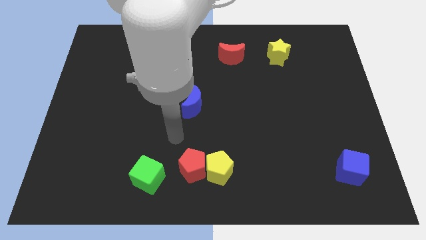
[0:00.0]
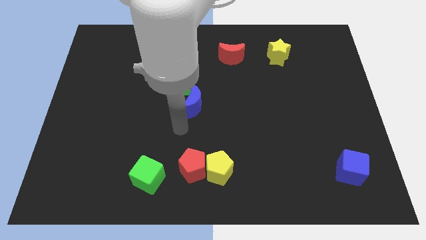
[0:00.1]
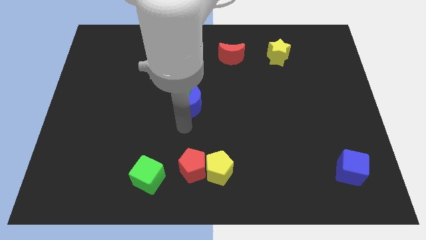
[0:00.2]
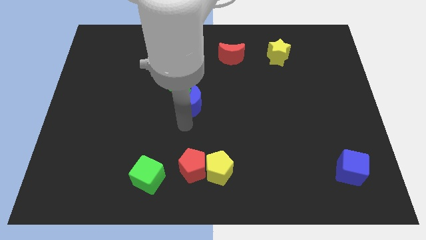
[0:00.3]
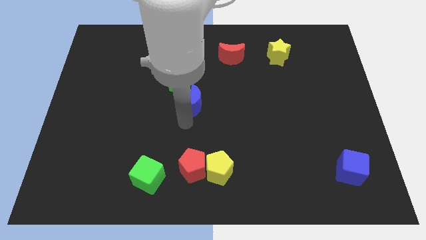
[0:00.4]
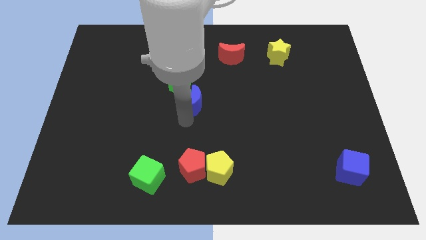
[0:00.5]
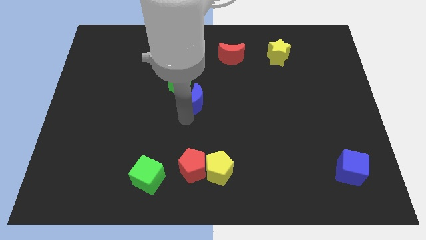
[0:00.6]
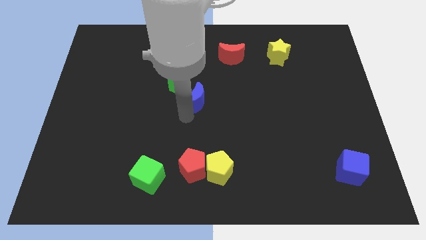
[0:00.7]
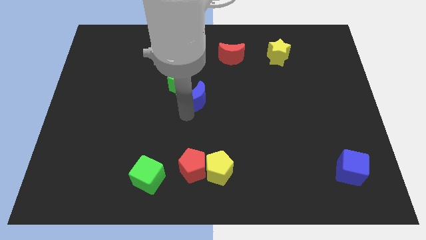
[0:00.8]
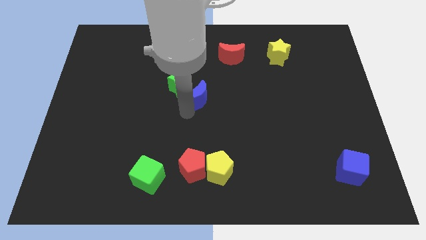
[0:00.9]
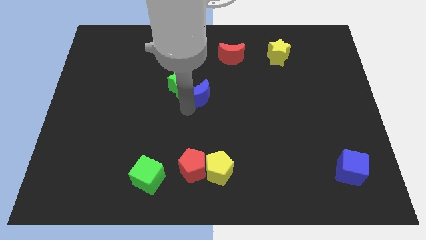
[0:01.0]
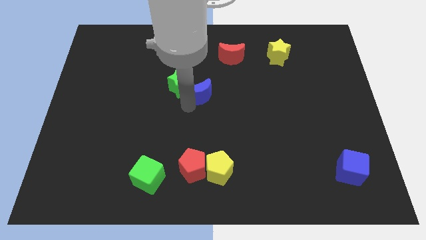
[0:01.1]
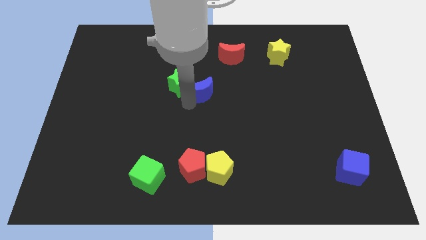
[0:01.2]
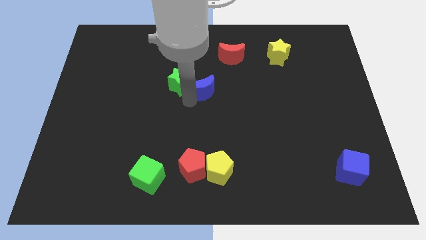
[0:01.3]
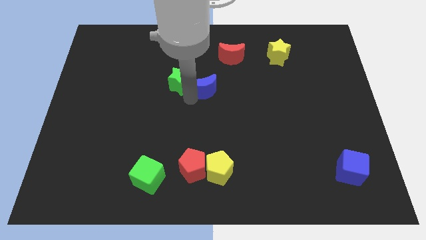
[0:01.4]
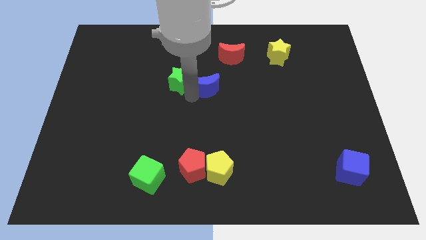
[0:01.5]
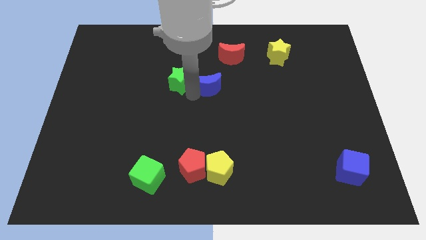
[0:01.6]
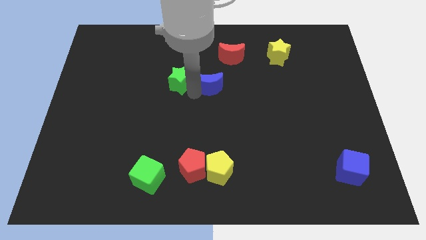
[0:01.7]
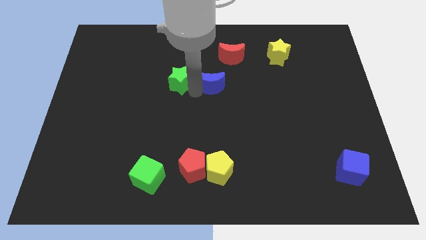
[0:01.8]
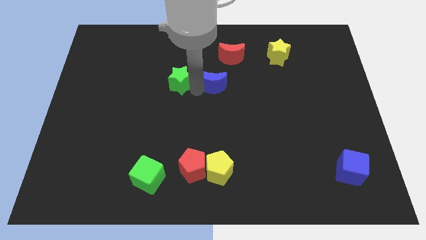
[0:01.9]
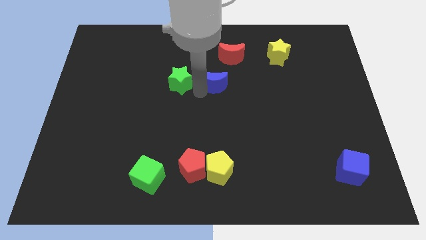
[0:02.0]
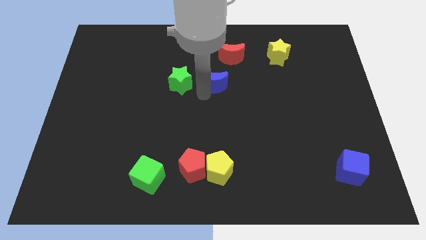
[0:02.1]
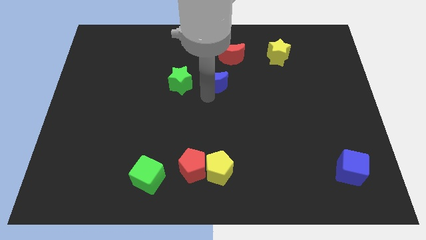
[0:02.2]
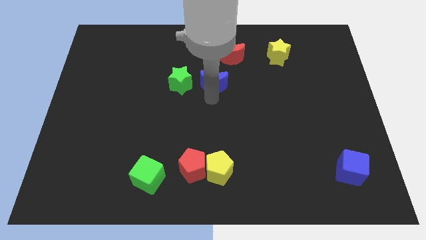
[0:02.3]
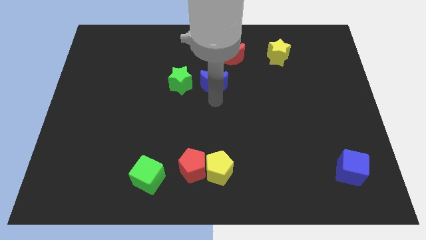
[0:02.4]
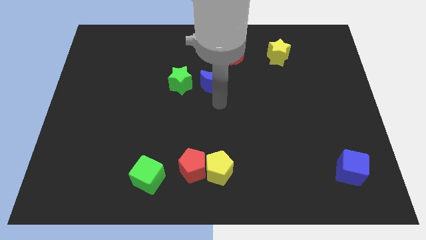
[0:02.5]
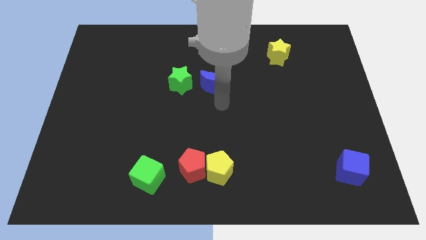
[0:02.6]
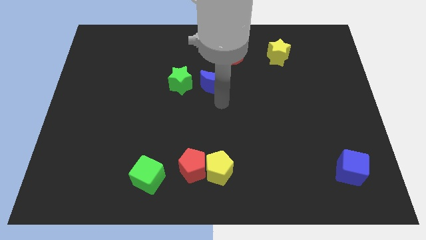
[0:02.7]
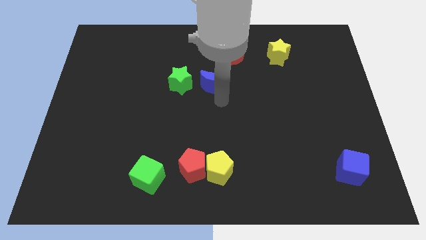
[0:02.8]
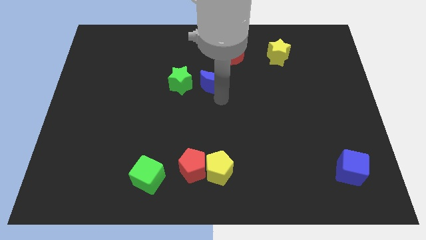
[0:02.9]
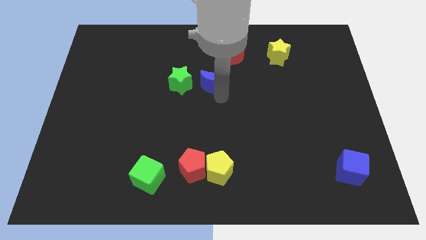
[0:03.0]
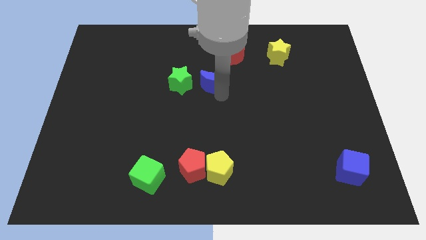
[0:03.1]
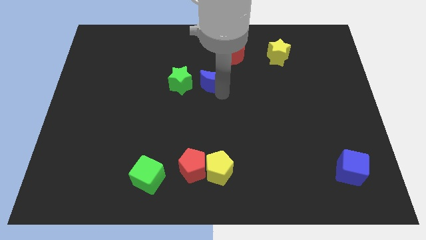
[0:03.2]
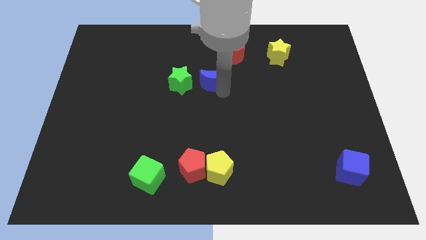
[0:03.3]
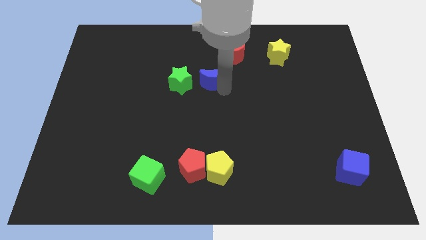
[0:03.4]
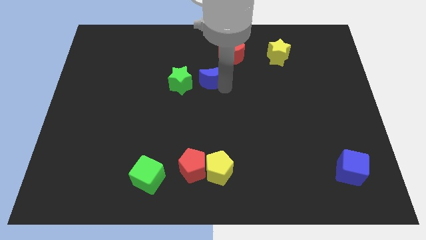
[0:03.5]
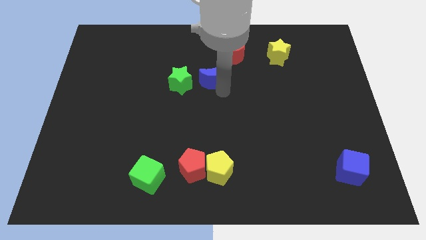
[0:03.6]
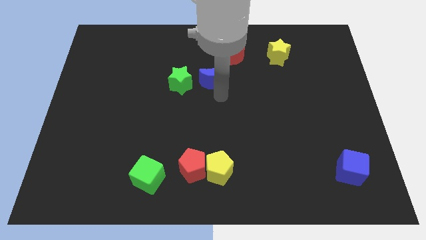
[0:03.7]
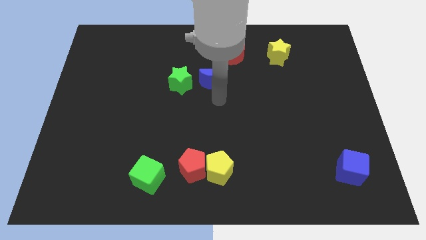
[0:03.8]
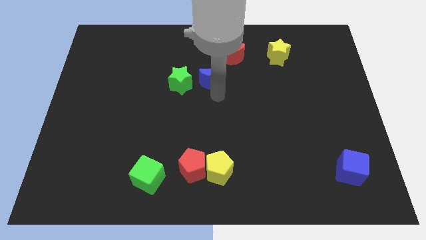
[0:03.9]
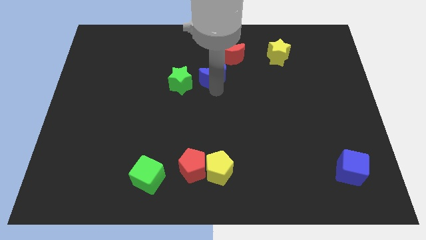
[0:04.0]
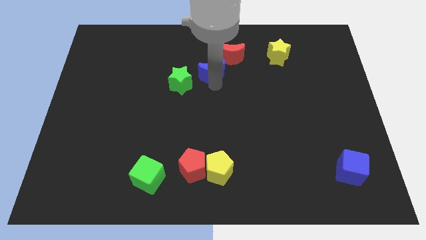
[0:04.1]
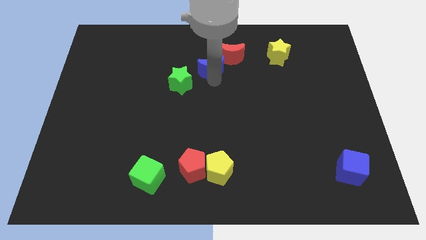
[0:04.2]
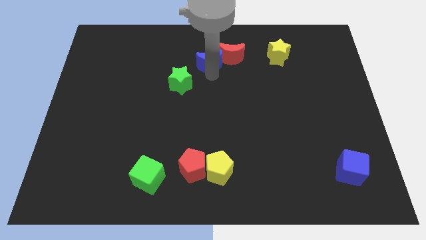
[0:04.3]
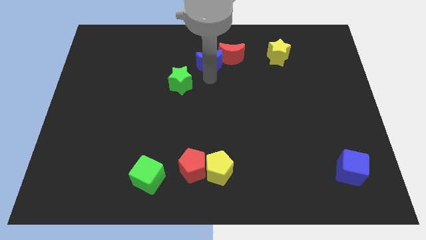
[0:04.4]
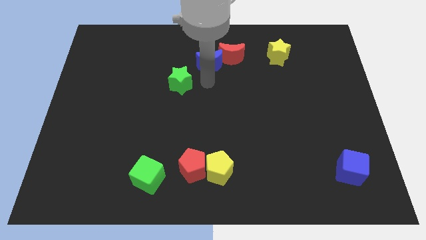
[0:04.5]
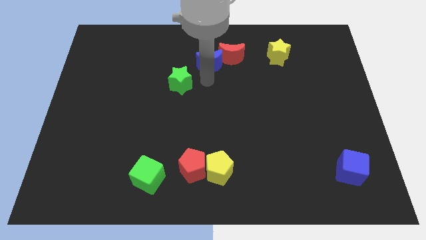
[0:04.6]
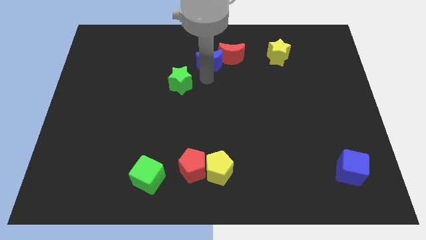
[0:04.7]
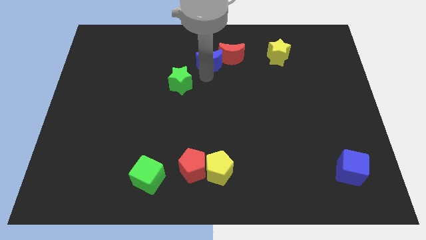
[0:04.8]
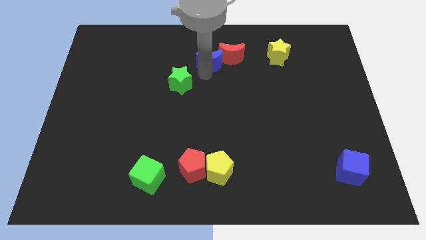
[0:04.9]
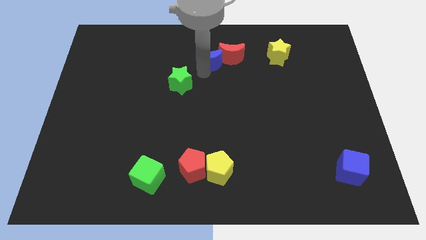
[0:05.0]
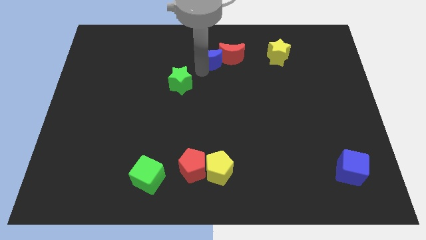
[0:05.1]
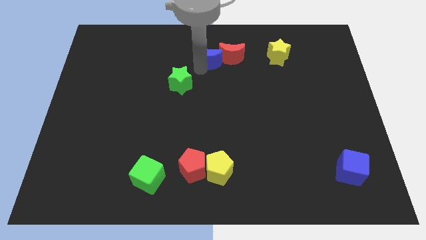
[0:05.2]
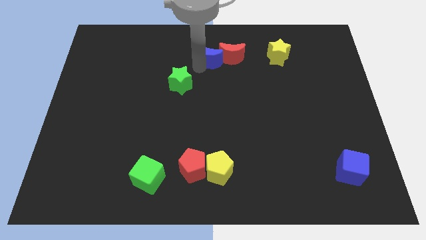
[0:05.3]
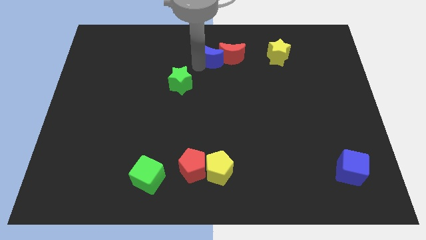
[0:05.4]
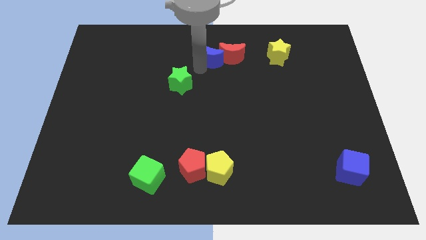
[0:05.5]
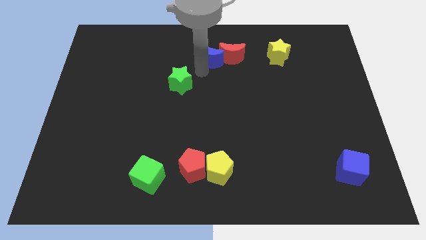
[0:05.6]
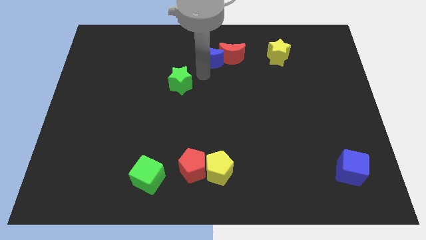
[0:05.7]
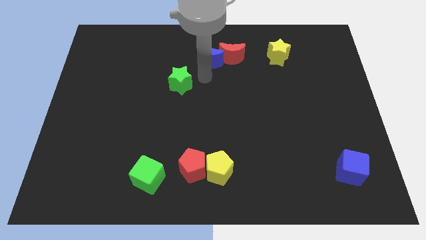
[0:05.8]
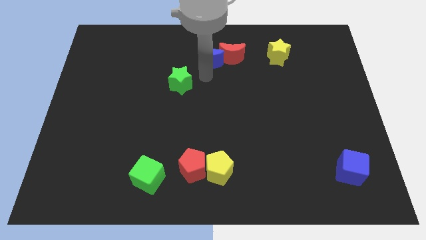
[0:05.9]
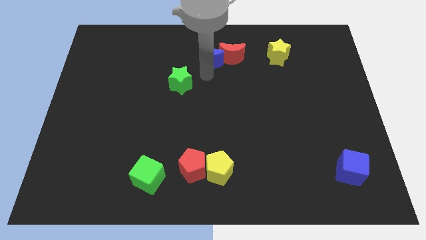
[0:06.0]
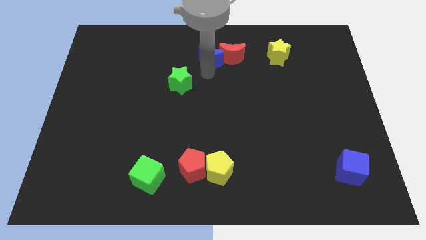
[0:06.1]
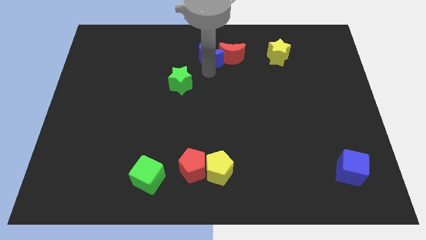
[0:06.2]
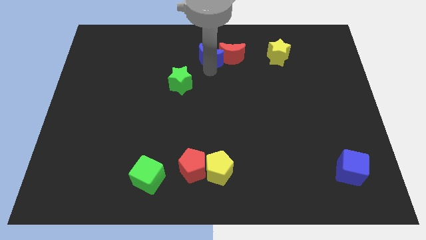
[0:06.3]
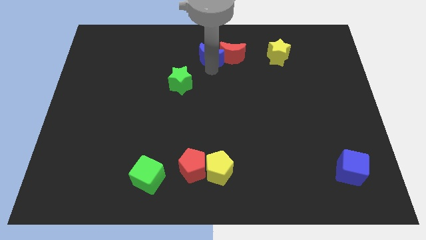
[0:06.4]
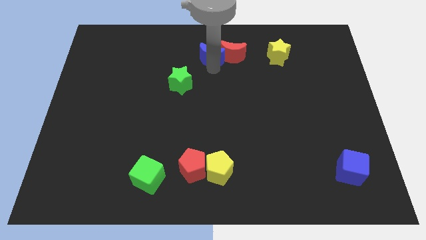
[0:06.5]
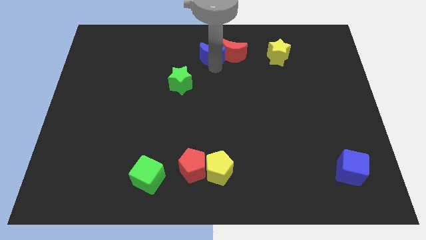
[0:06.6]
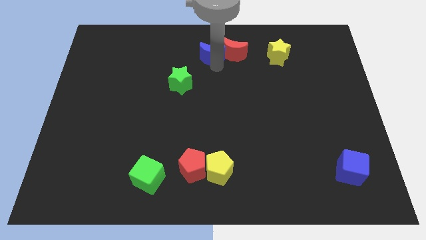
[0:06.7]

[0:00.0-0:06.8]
slide the blue moon to the top

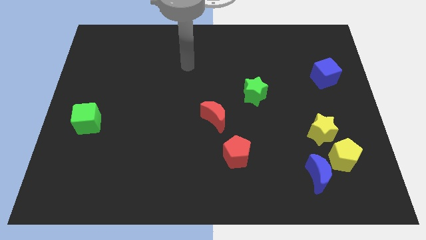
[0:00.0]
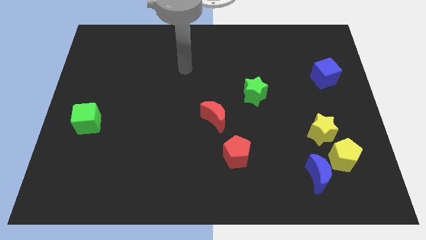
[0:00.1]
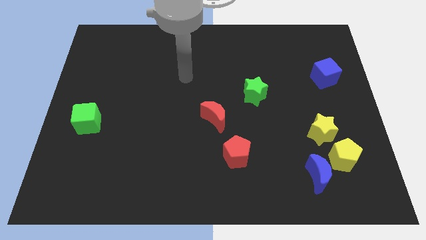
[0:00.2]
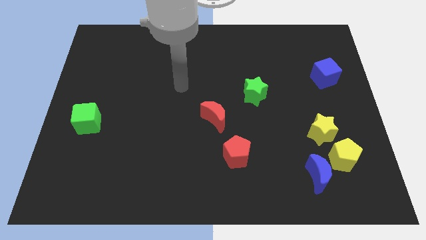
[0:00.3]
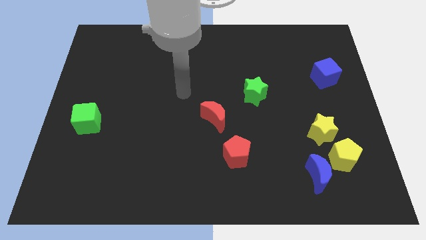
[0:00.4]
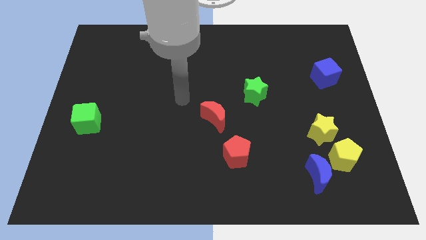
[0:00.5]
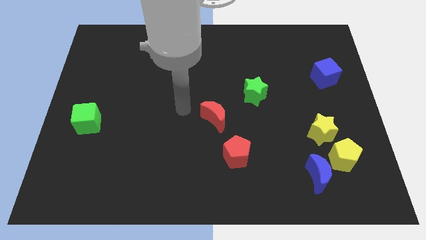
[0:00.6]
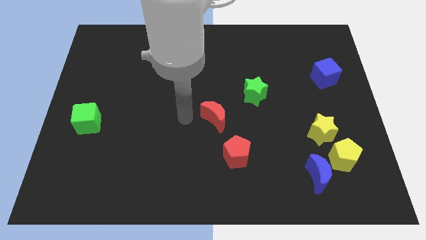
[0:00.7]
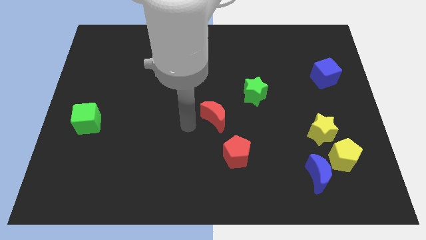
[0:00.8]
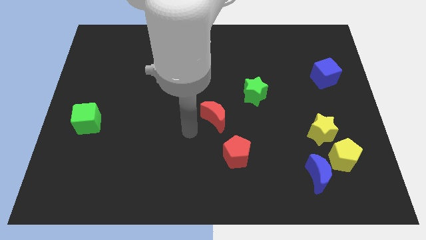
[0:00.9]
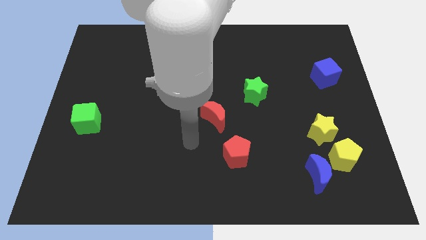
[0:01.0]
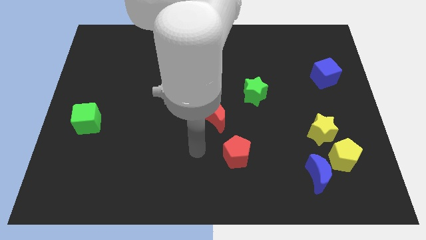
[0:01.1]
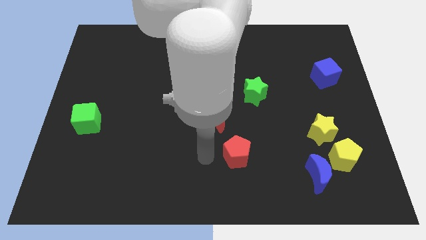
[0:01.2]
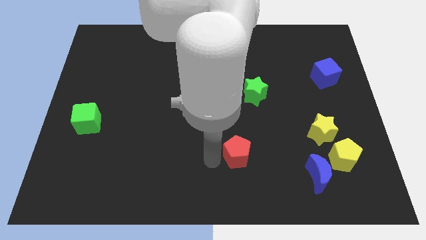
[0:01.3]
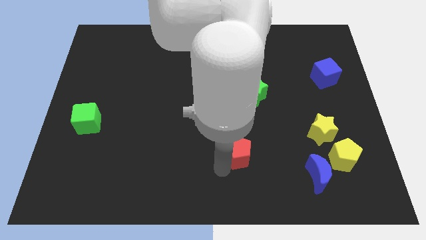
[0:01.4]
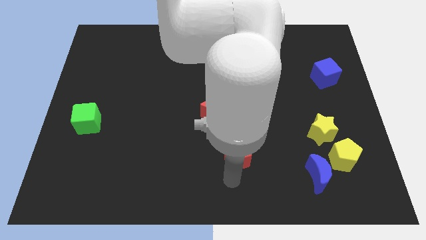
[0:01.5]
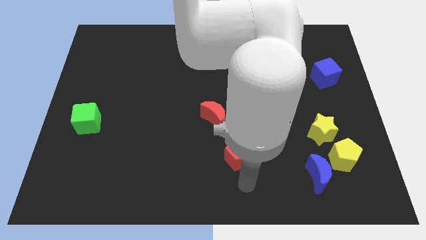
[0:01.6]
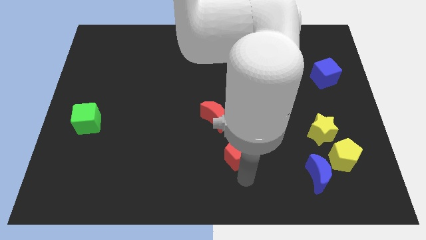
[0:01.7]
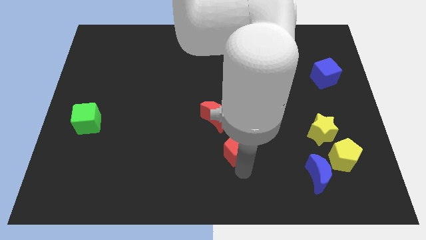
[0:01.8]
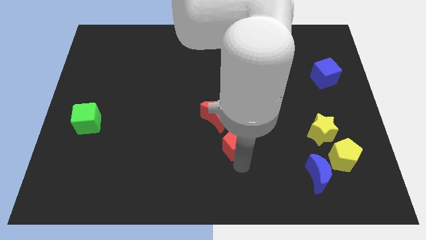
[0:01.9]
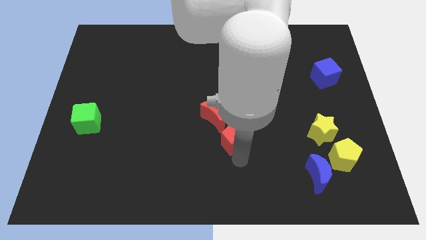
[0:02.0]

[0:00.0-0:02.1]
slide the red pentagon to the middle
